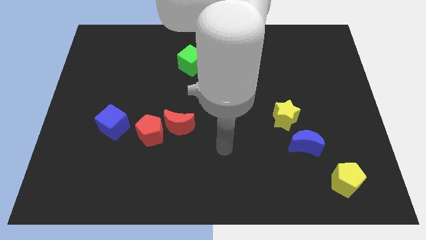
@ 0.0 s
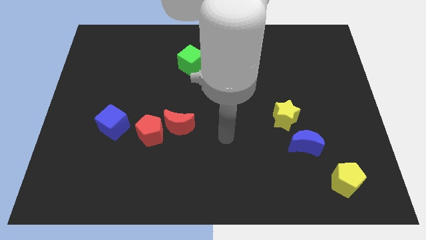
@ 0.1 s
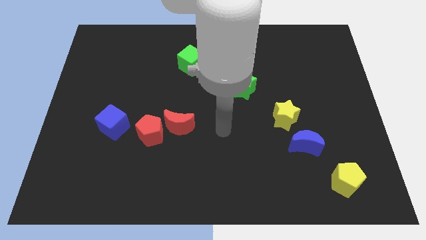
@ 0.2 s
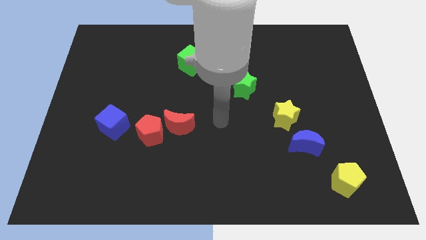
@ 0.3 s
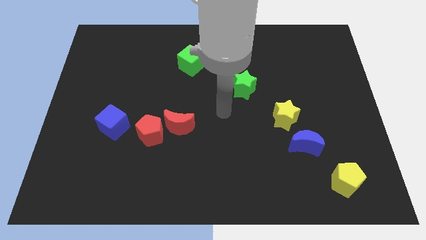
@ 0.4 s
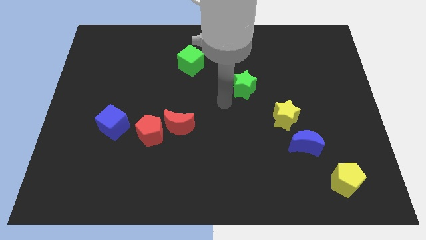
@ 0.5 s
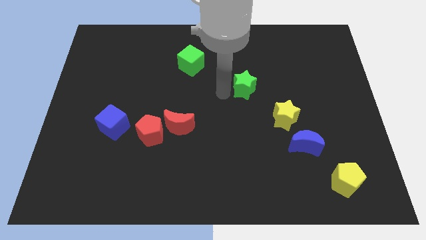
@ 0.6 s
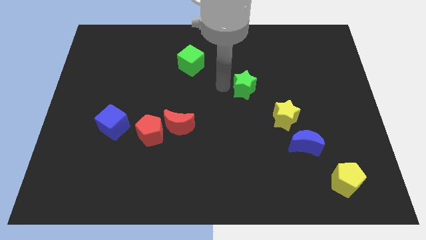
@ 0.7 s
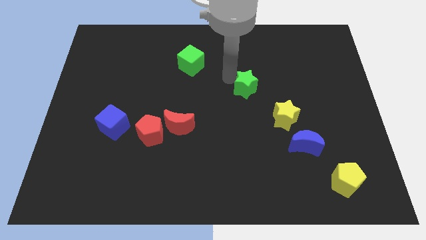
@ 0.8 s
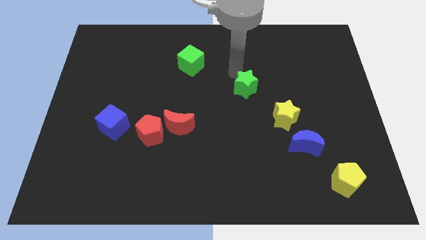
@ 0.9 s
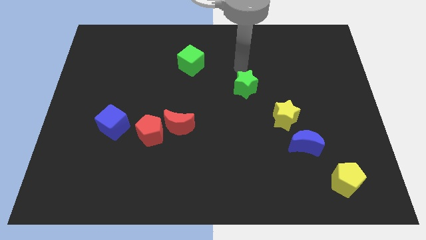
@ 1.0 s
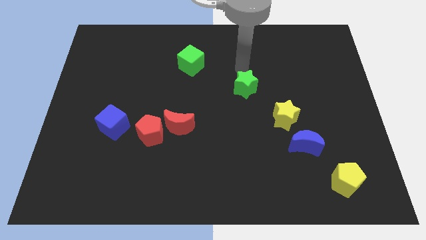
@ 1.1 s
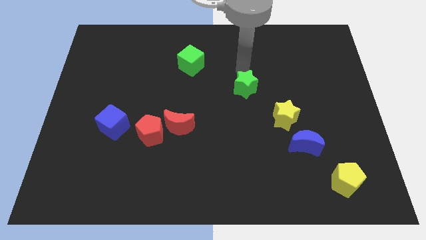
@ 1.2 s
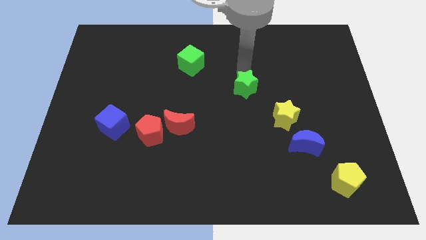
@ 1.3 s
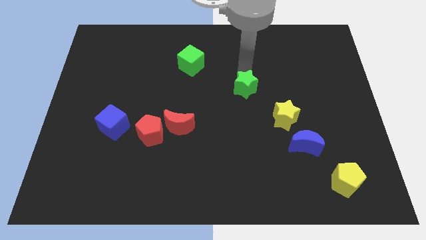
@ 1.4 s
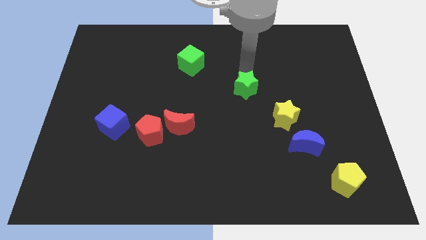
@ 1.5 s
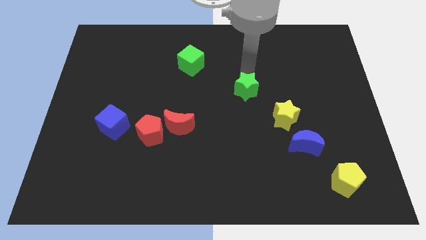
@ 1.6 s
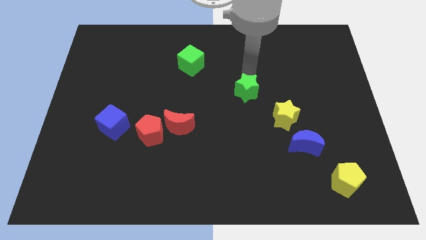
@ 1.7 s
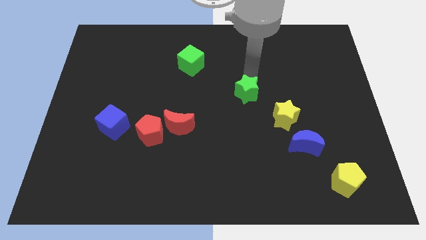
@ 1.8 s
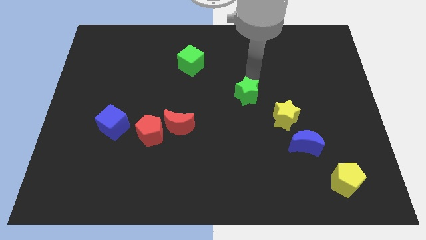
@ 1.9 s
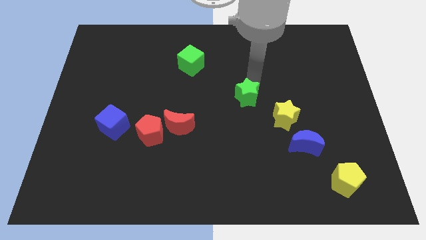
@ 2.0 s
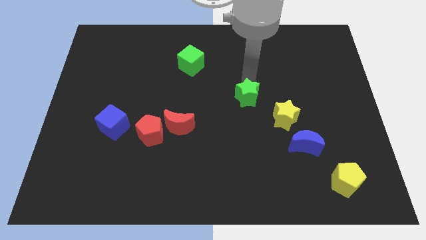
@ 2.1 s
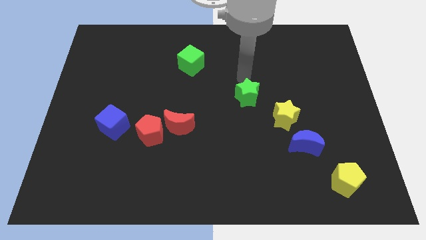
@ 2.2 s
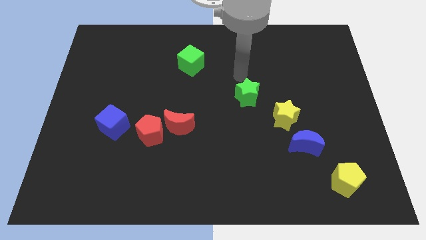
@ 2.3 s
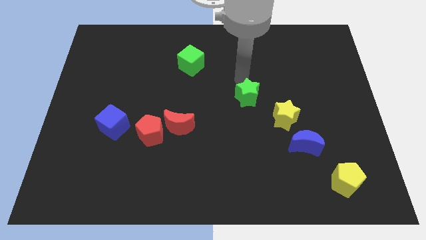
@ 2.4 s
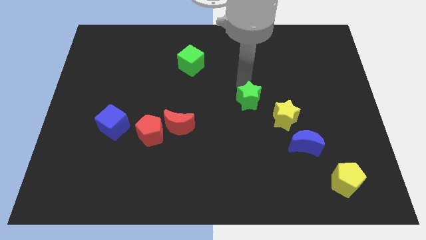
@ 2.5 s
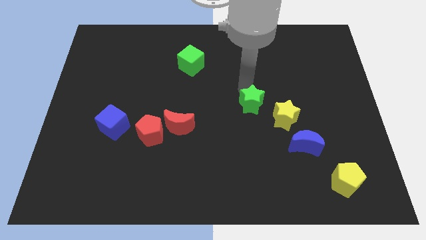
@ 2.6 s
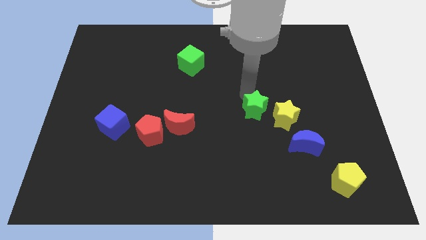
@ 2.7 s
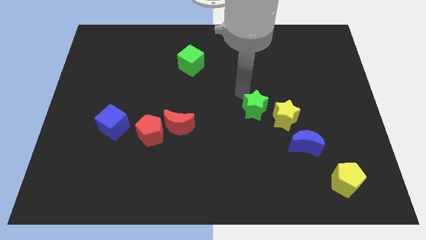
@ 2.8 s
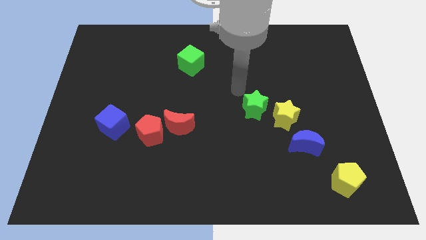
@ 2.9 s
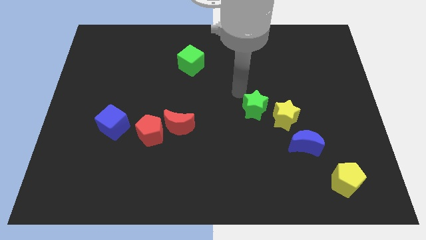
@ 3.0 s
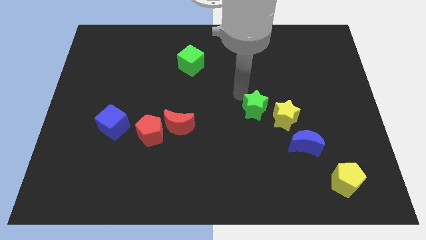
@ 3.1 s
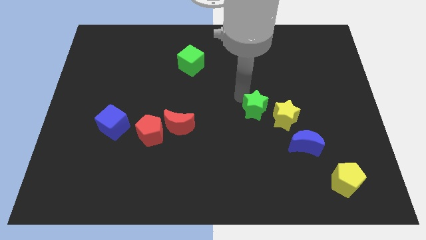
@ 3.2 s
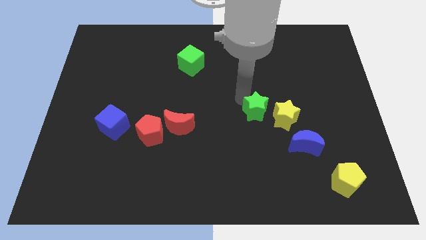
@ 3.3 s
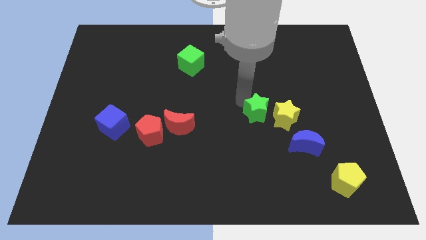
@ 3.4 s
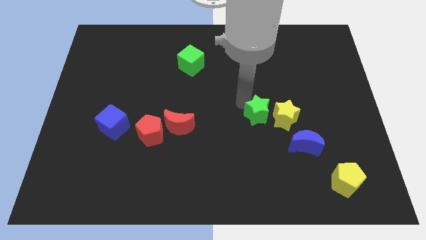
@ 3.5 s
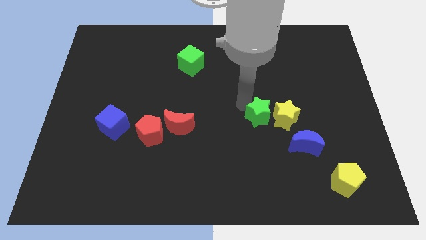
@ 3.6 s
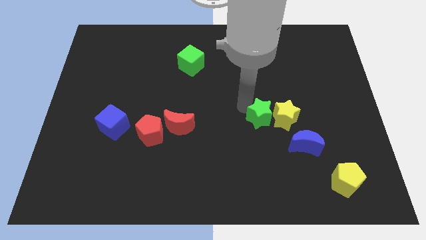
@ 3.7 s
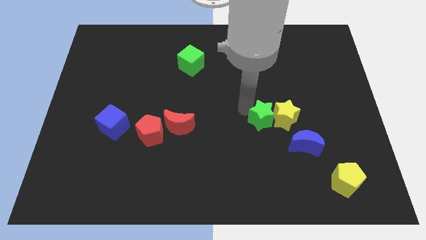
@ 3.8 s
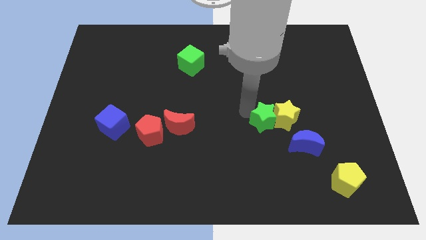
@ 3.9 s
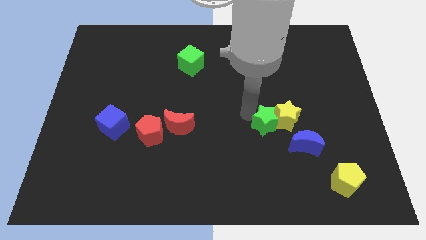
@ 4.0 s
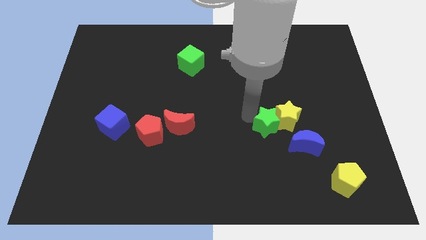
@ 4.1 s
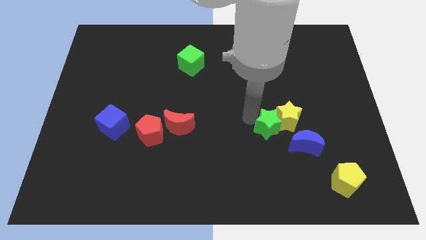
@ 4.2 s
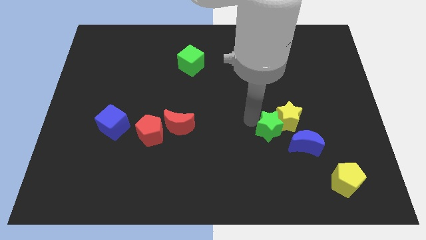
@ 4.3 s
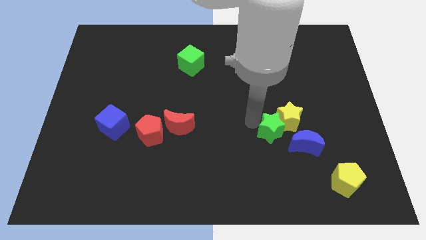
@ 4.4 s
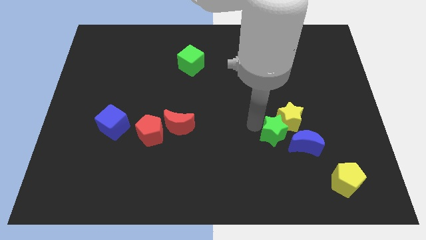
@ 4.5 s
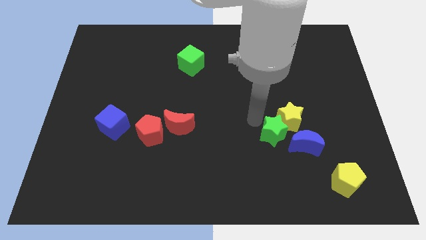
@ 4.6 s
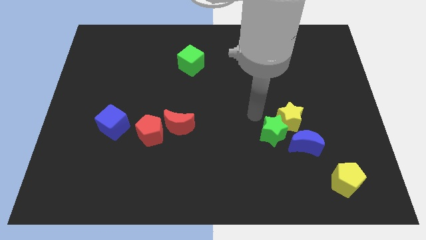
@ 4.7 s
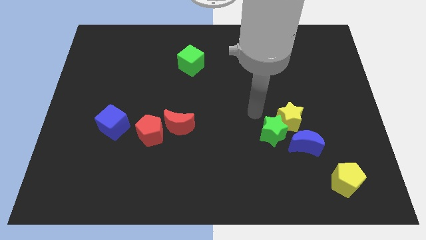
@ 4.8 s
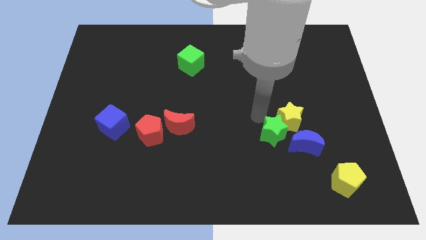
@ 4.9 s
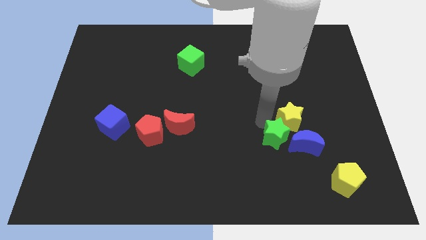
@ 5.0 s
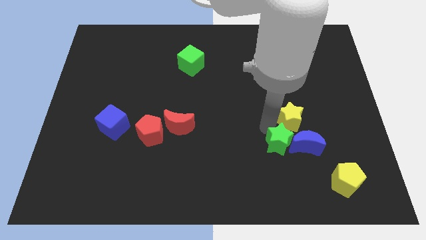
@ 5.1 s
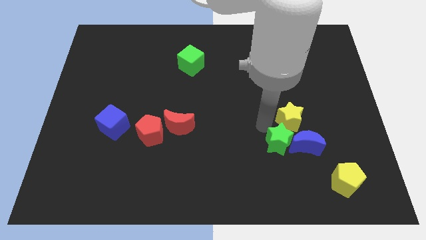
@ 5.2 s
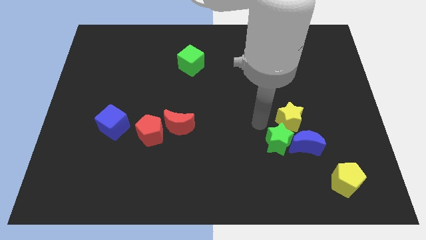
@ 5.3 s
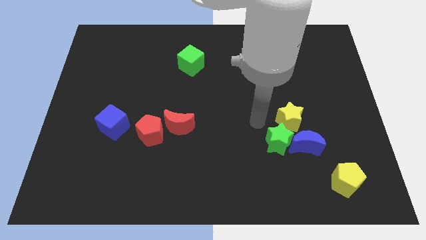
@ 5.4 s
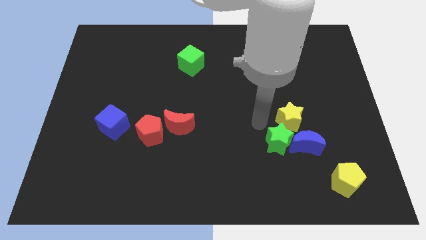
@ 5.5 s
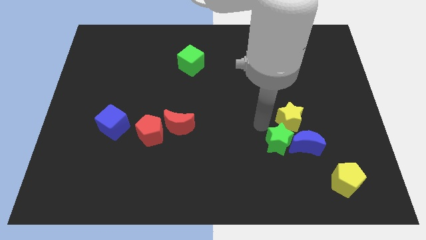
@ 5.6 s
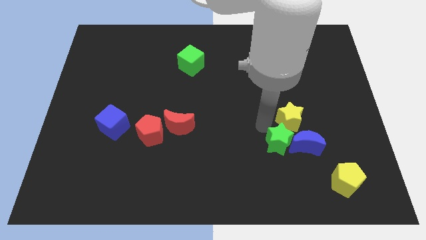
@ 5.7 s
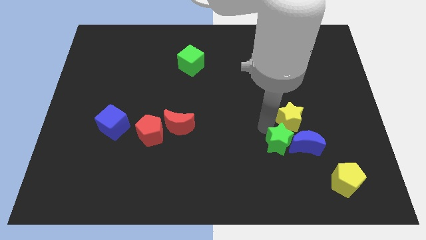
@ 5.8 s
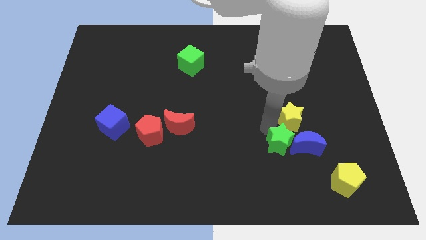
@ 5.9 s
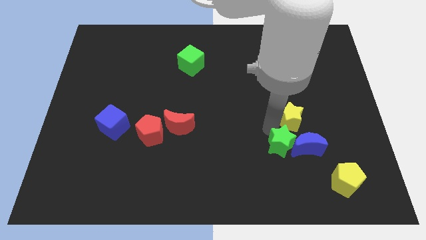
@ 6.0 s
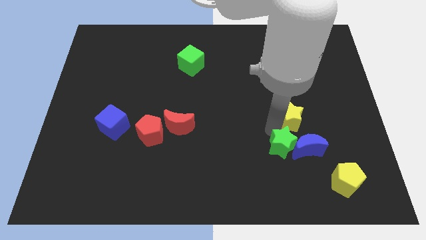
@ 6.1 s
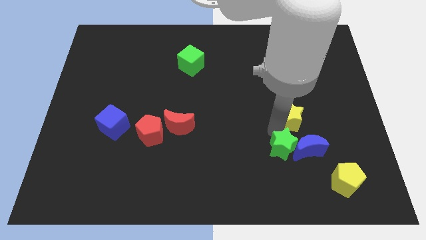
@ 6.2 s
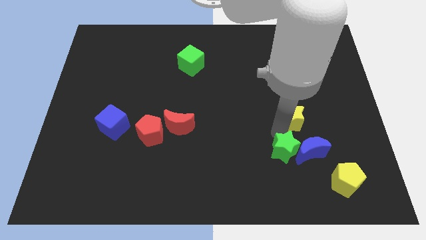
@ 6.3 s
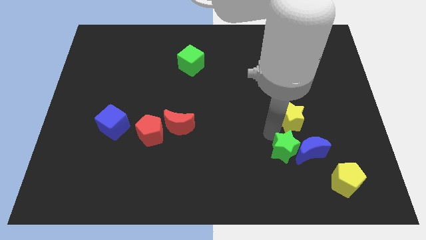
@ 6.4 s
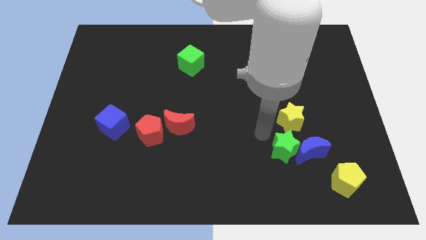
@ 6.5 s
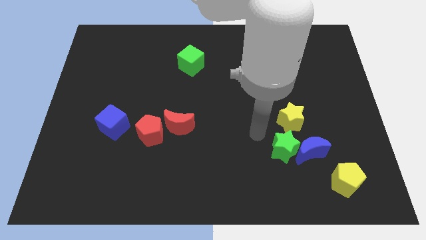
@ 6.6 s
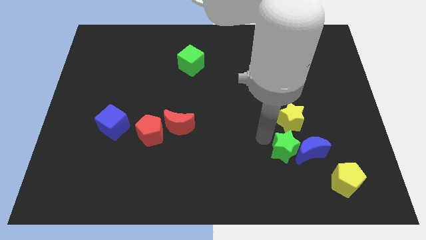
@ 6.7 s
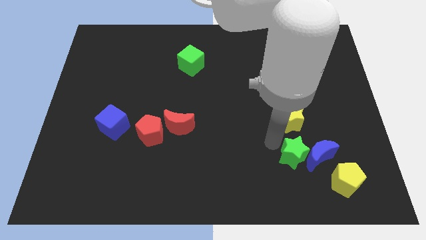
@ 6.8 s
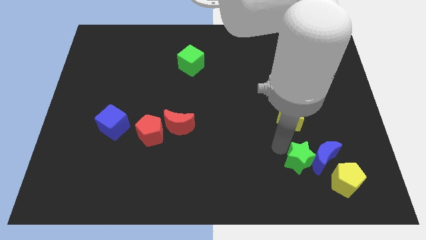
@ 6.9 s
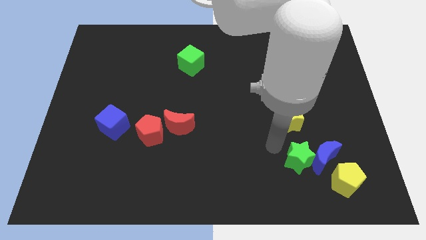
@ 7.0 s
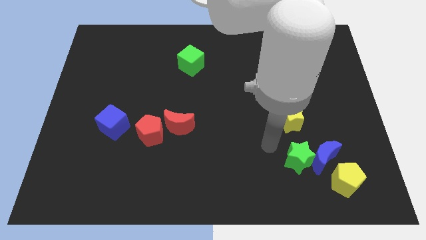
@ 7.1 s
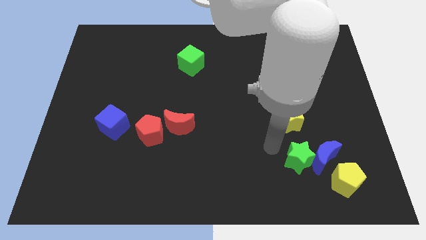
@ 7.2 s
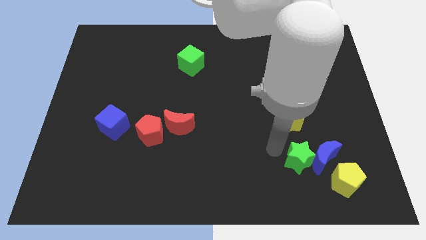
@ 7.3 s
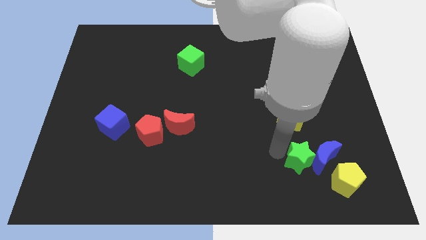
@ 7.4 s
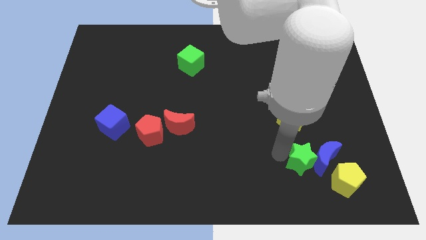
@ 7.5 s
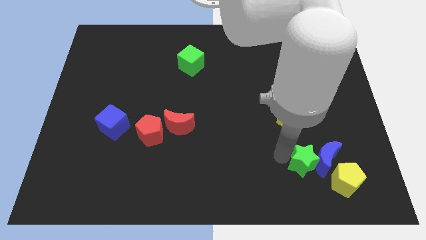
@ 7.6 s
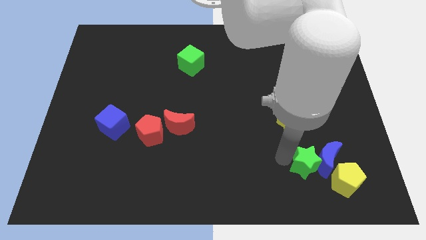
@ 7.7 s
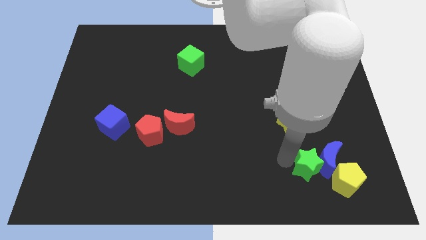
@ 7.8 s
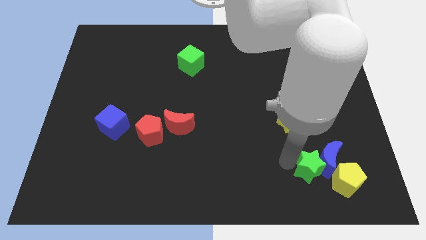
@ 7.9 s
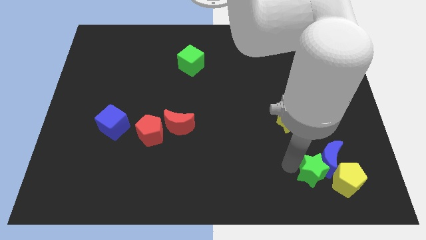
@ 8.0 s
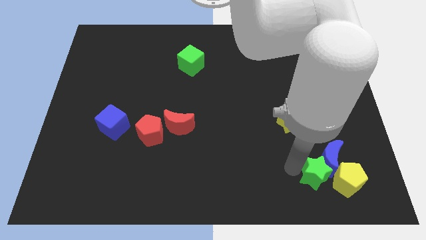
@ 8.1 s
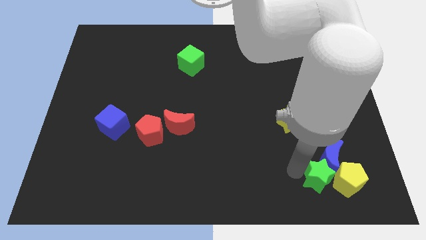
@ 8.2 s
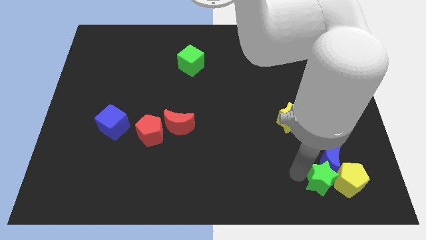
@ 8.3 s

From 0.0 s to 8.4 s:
put the green star next to the yellow pentagon
